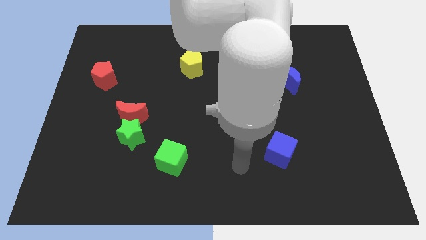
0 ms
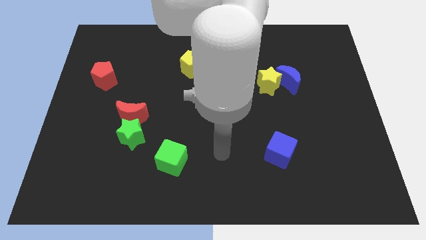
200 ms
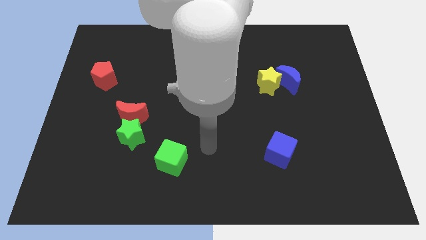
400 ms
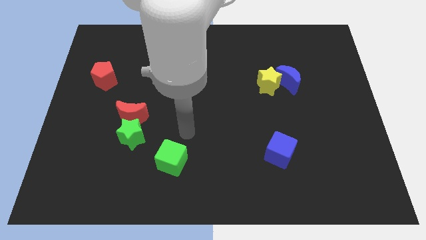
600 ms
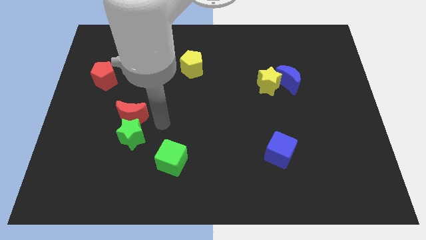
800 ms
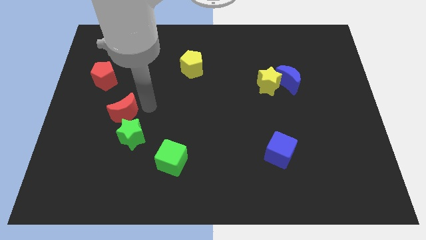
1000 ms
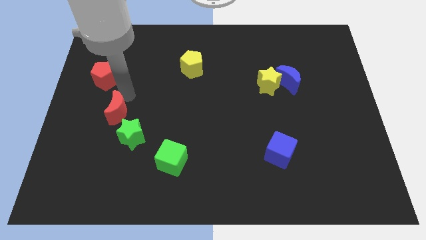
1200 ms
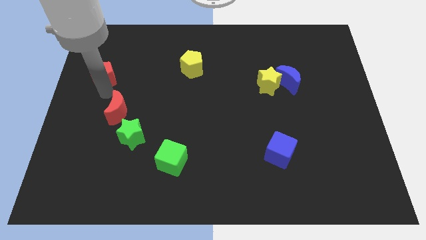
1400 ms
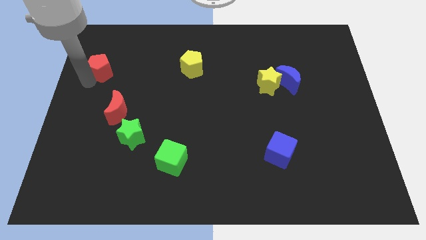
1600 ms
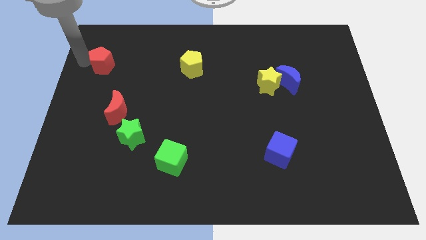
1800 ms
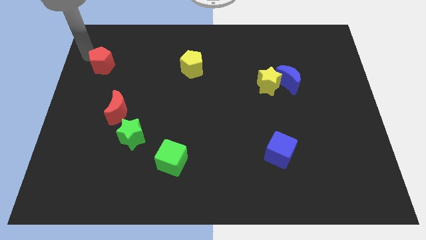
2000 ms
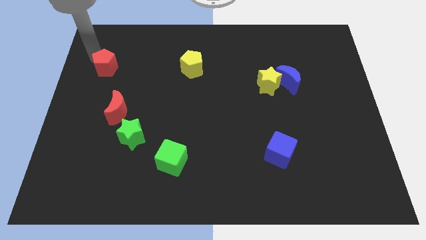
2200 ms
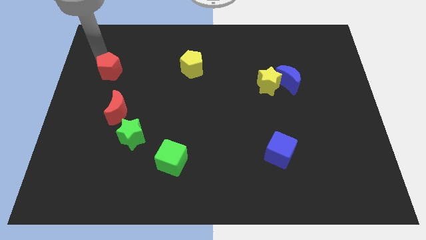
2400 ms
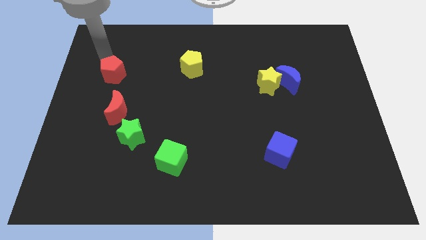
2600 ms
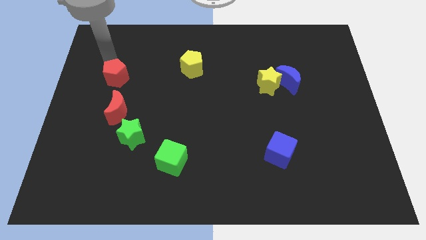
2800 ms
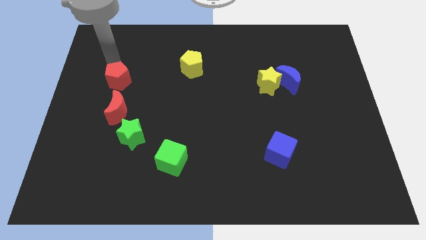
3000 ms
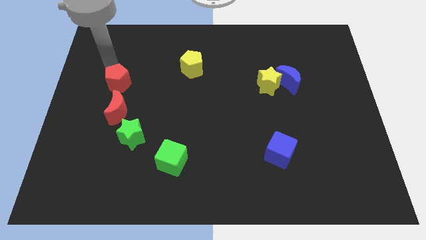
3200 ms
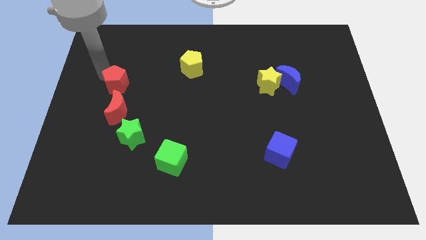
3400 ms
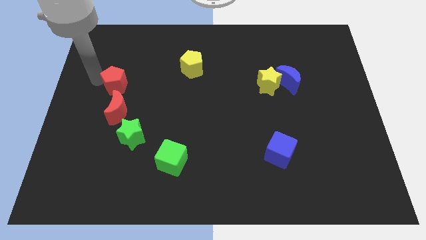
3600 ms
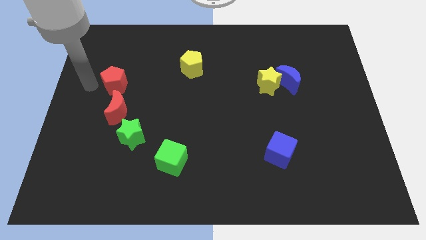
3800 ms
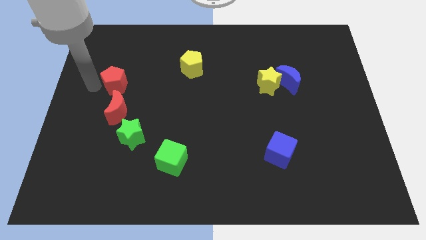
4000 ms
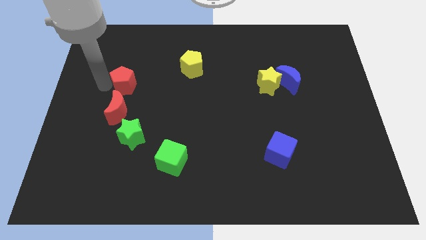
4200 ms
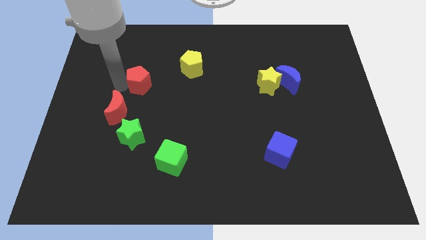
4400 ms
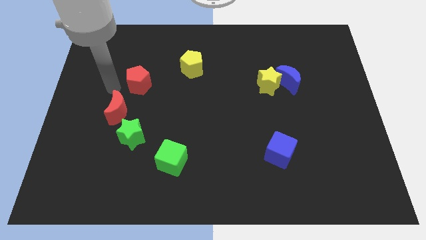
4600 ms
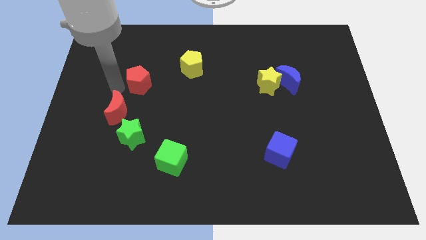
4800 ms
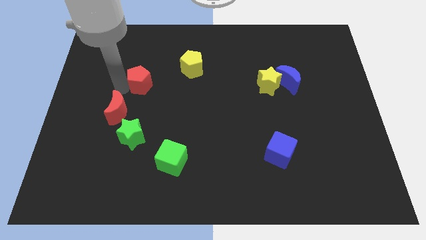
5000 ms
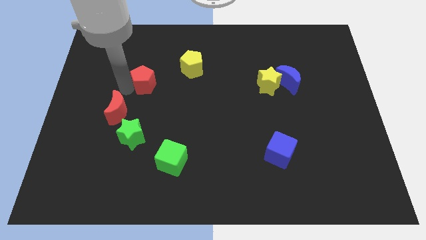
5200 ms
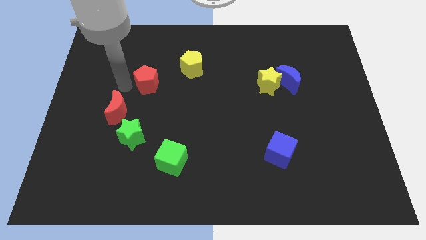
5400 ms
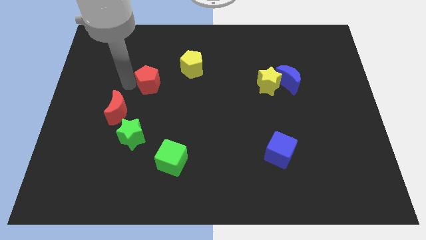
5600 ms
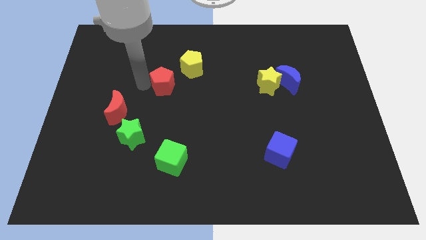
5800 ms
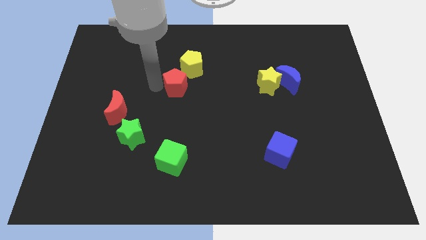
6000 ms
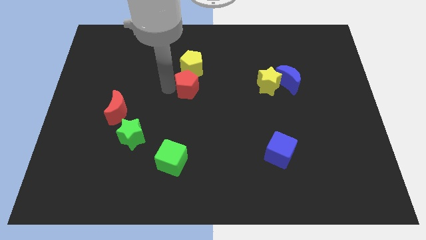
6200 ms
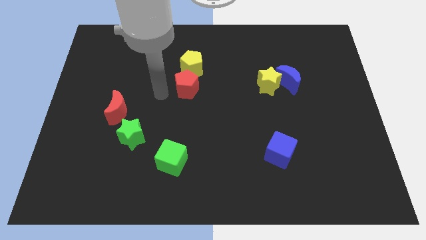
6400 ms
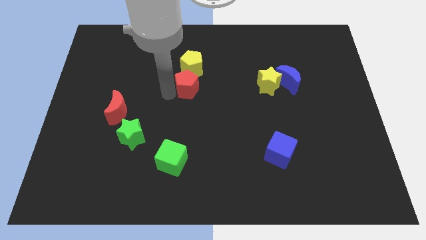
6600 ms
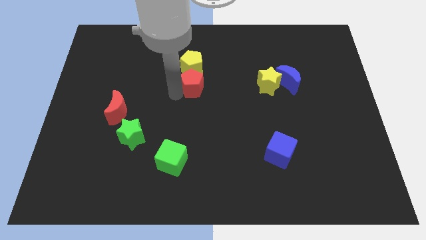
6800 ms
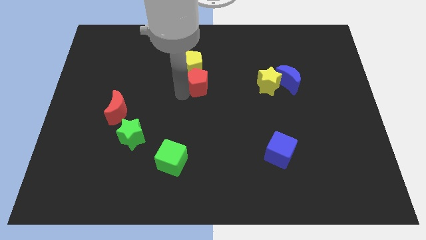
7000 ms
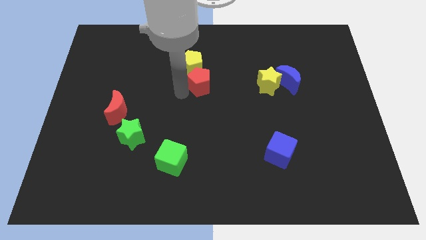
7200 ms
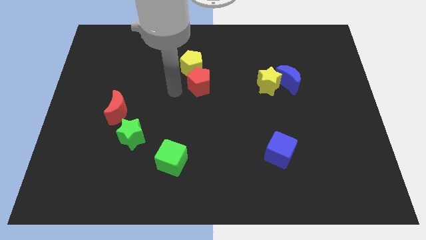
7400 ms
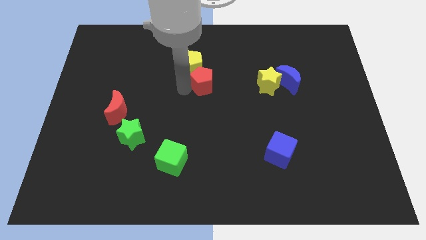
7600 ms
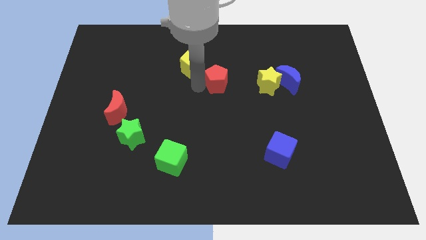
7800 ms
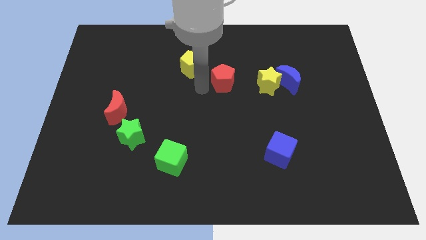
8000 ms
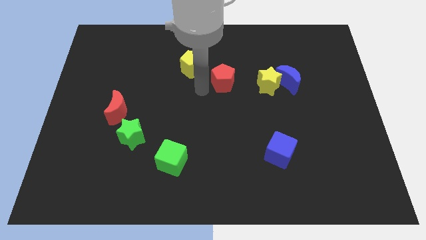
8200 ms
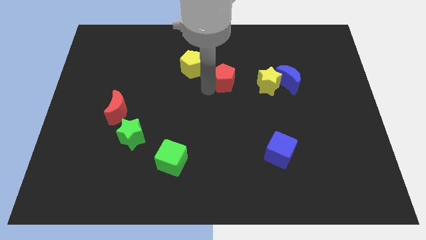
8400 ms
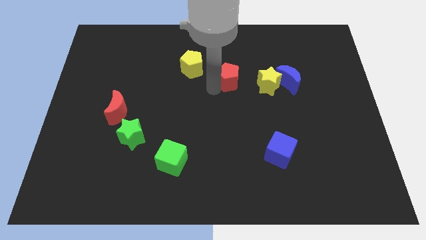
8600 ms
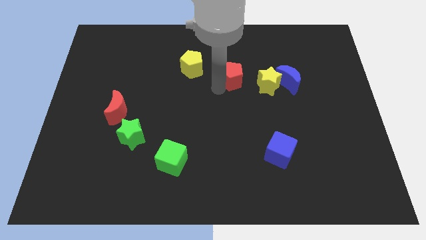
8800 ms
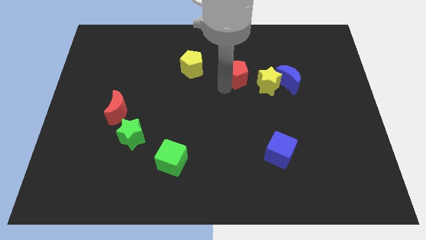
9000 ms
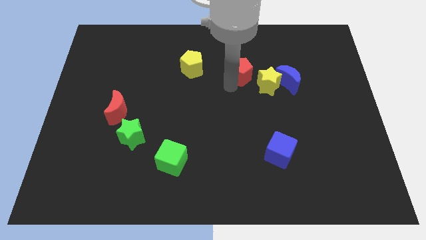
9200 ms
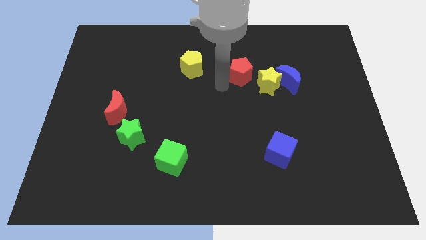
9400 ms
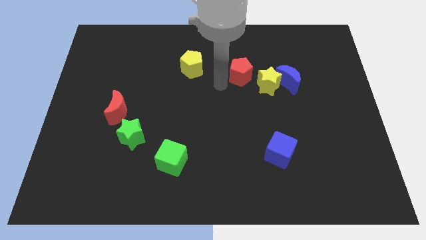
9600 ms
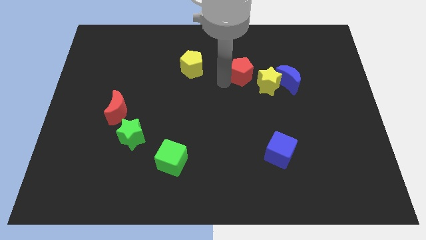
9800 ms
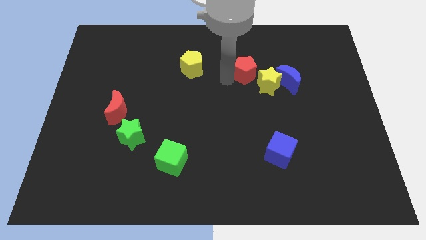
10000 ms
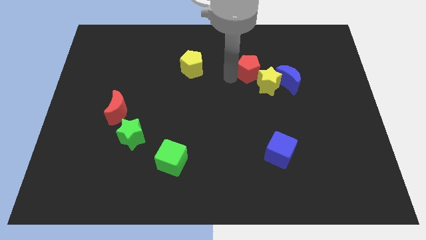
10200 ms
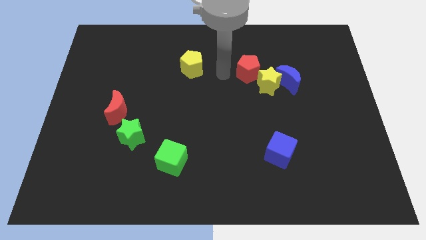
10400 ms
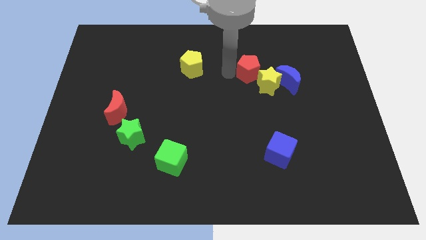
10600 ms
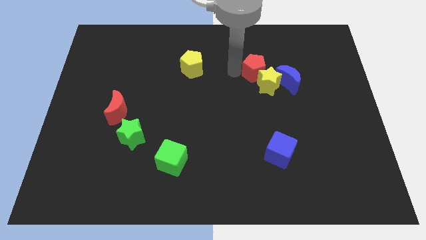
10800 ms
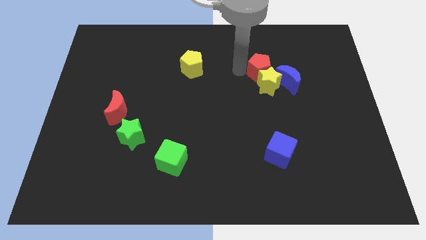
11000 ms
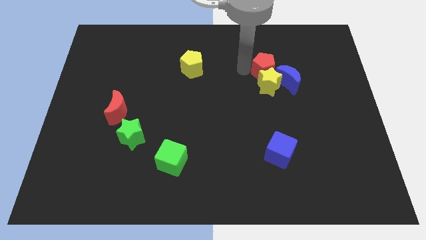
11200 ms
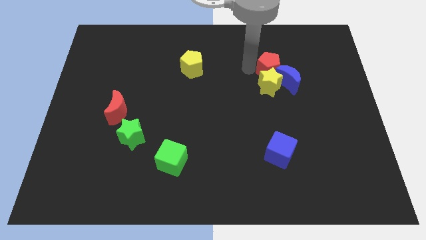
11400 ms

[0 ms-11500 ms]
slide the red pentagon close to the blue moon

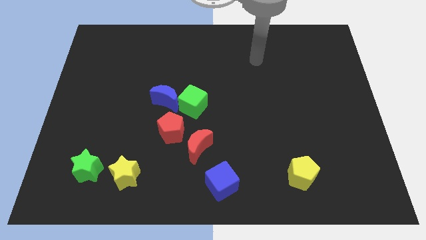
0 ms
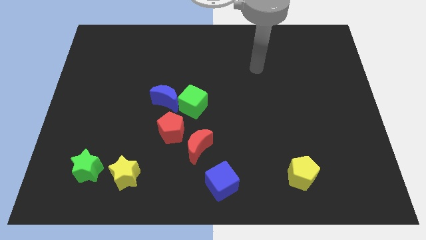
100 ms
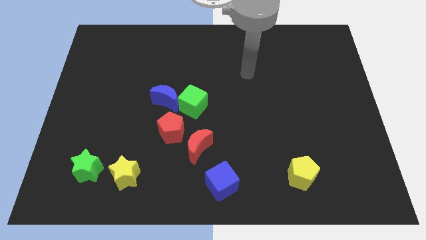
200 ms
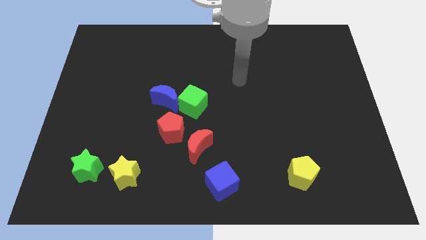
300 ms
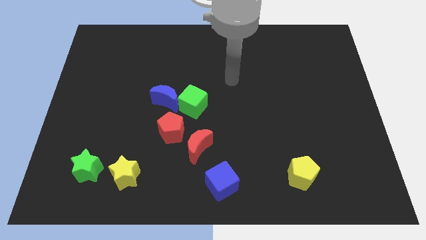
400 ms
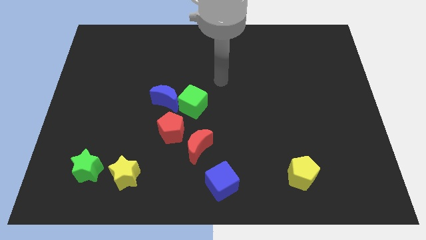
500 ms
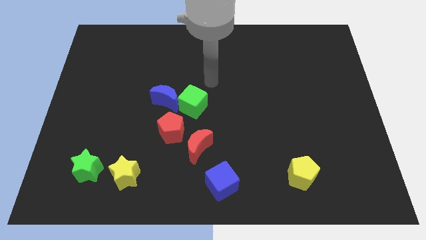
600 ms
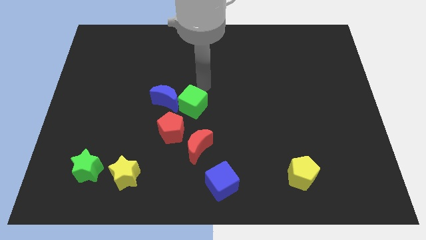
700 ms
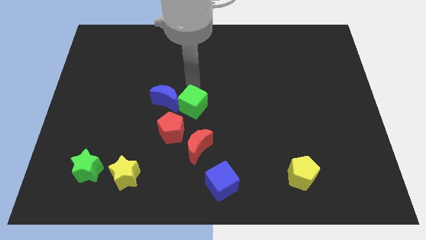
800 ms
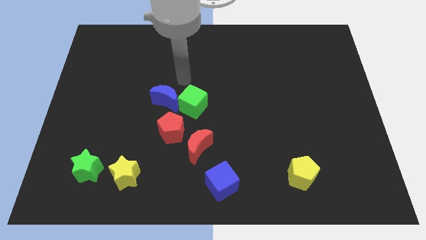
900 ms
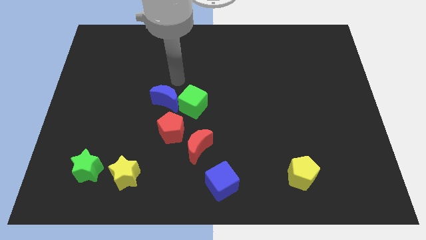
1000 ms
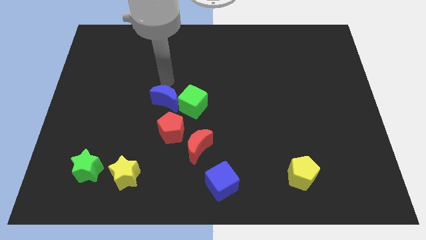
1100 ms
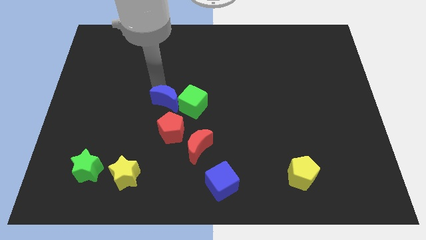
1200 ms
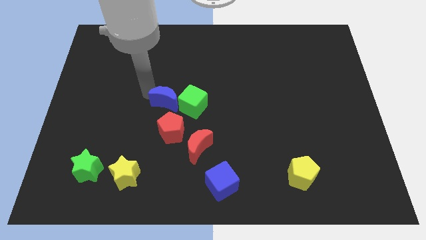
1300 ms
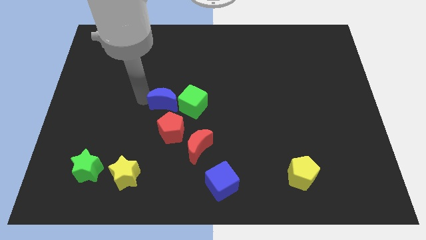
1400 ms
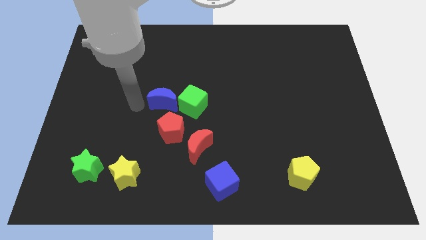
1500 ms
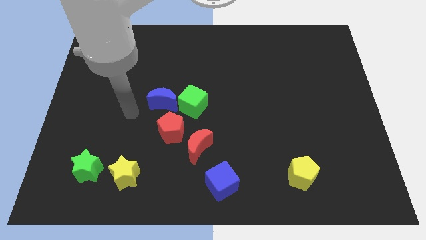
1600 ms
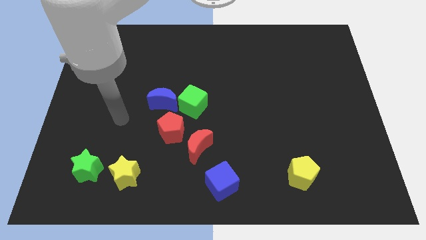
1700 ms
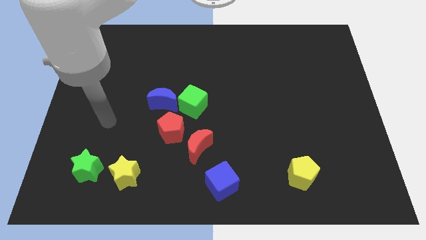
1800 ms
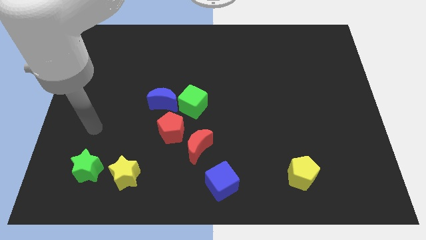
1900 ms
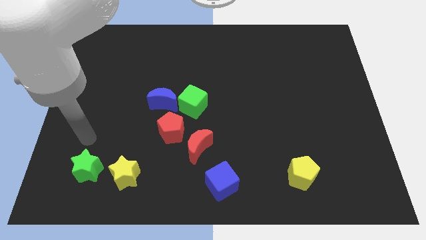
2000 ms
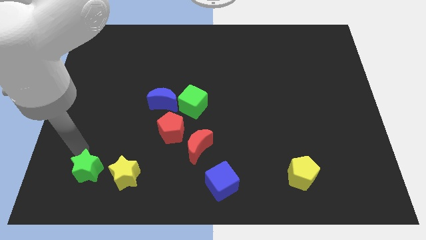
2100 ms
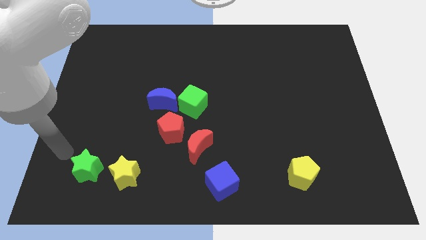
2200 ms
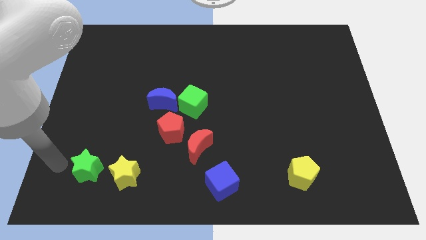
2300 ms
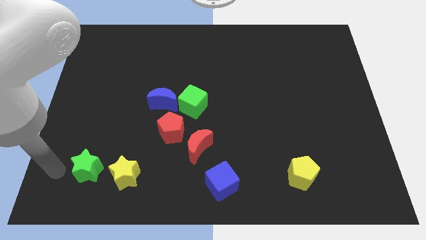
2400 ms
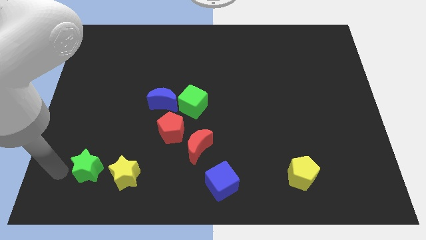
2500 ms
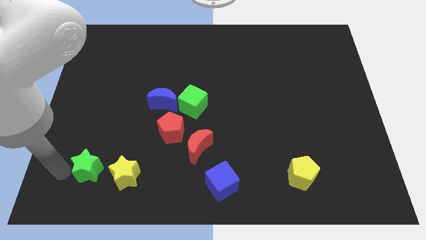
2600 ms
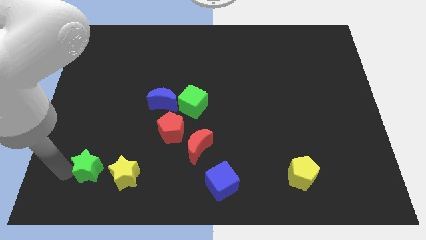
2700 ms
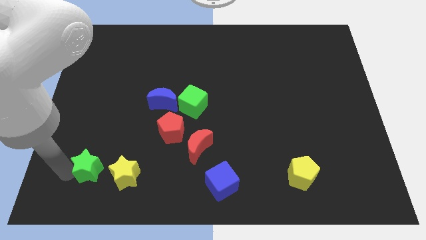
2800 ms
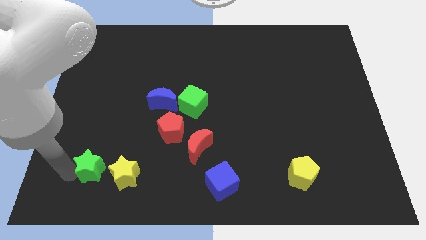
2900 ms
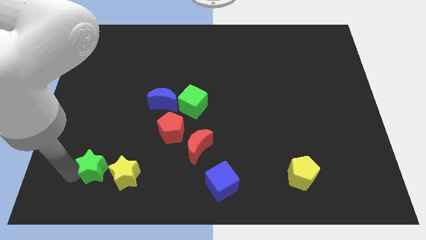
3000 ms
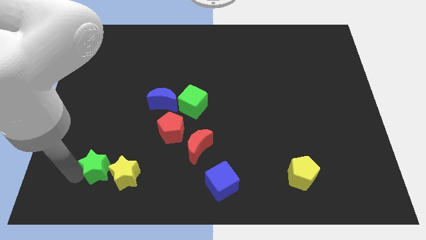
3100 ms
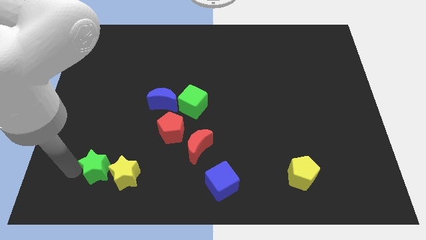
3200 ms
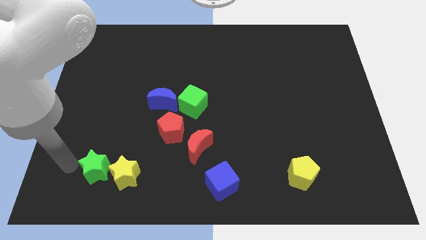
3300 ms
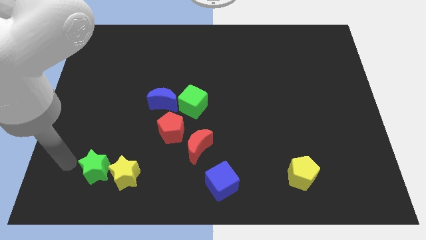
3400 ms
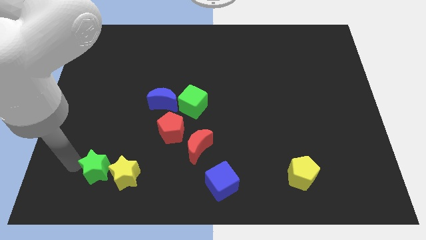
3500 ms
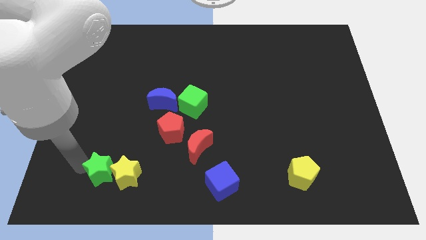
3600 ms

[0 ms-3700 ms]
move the green star to the yellow star
